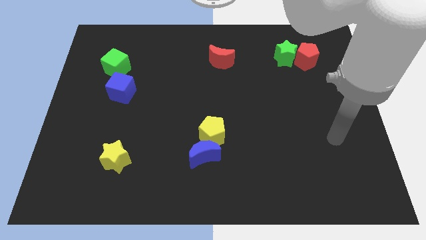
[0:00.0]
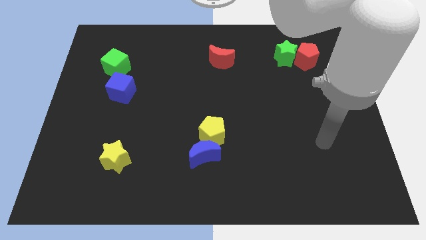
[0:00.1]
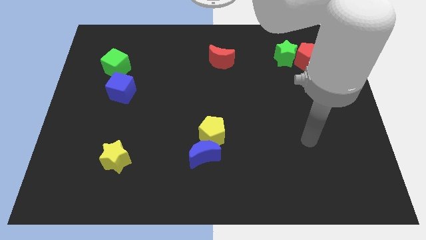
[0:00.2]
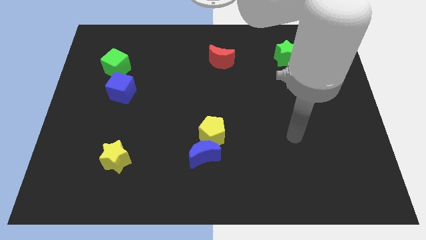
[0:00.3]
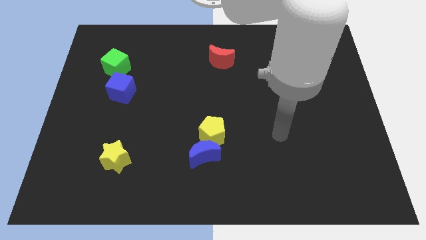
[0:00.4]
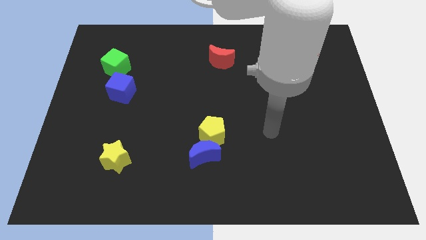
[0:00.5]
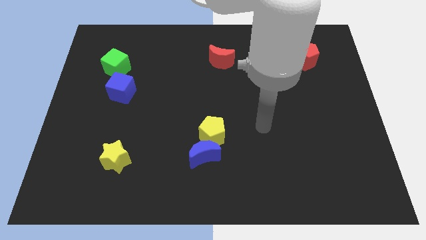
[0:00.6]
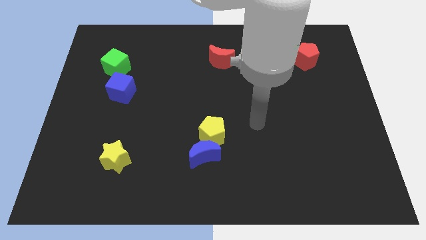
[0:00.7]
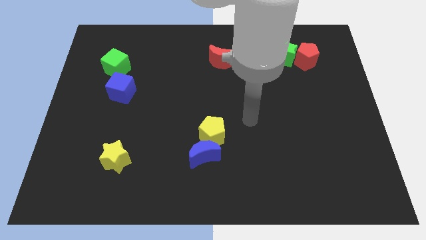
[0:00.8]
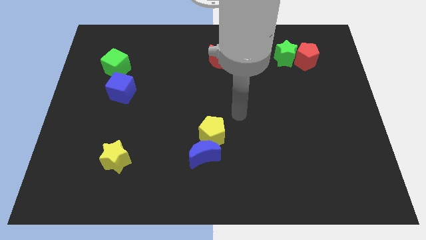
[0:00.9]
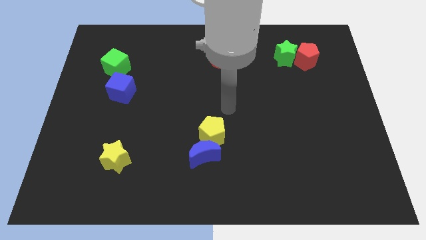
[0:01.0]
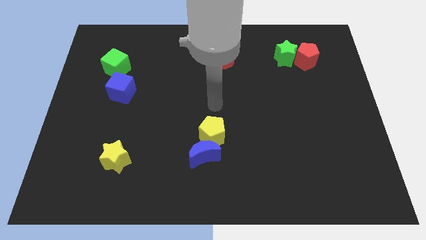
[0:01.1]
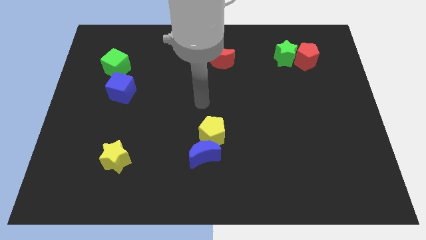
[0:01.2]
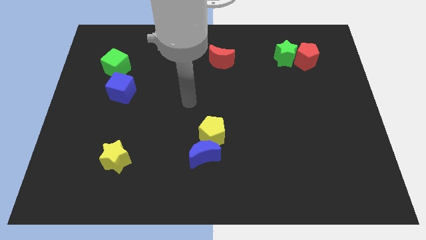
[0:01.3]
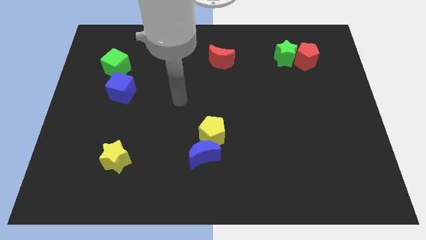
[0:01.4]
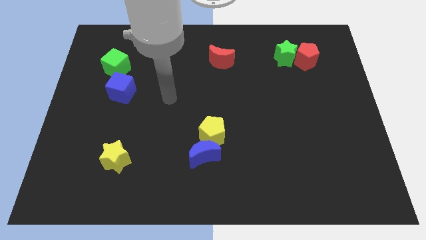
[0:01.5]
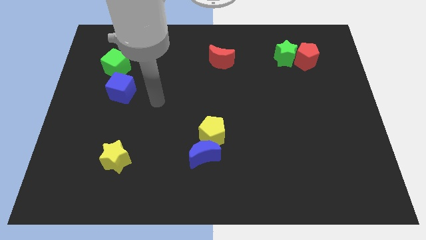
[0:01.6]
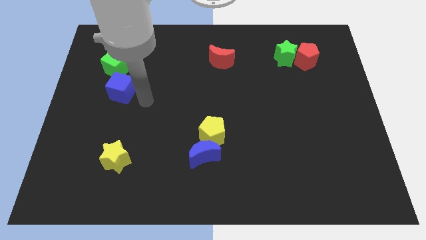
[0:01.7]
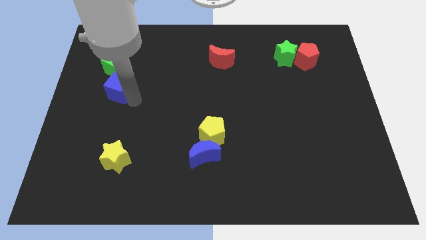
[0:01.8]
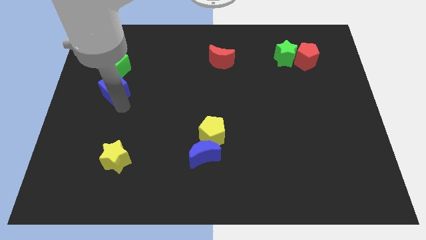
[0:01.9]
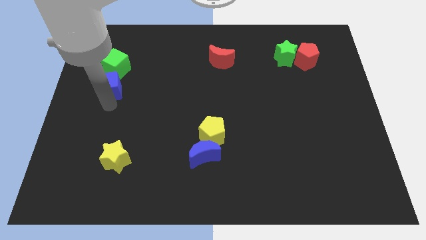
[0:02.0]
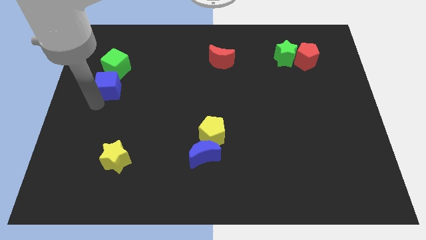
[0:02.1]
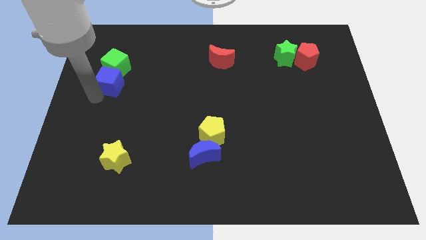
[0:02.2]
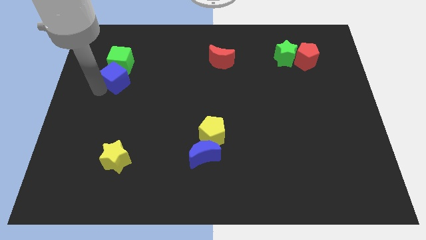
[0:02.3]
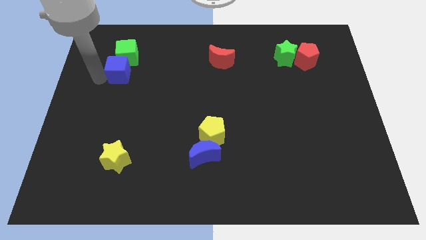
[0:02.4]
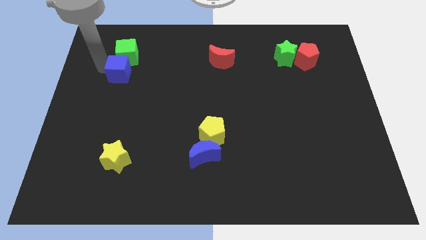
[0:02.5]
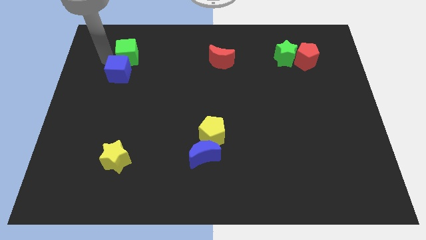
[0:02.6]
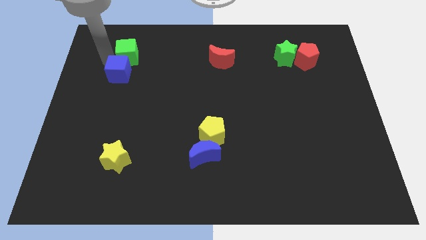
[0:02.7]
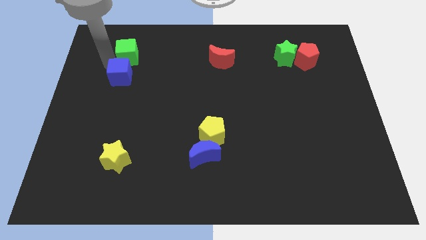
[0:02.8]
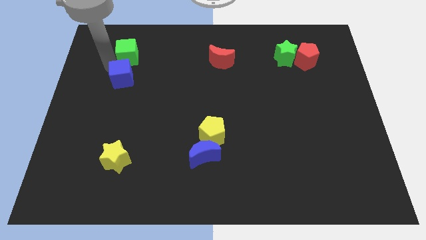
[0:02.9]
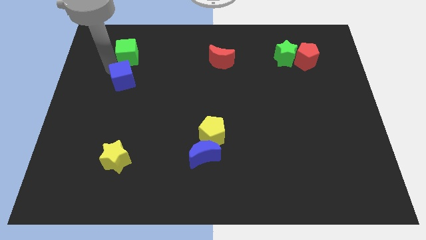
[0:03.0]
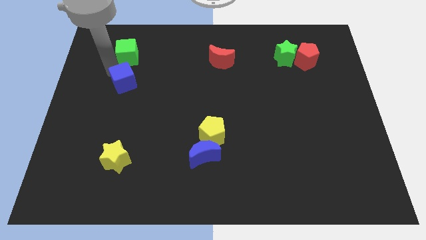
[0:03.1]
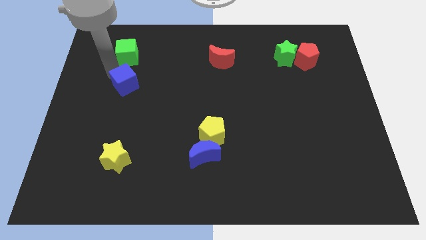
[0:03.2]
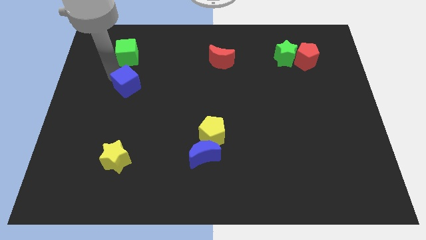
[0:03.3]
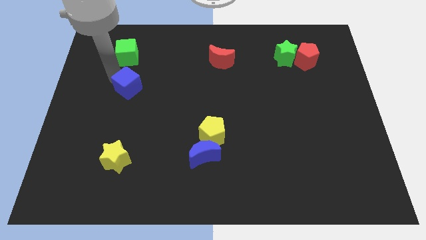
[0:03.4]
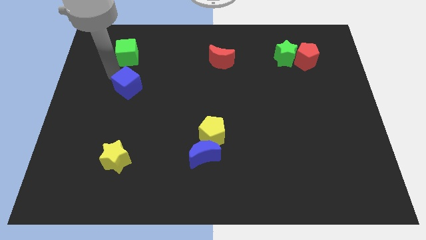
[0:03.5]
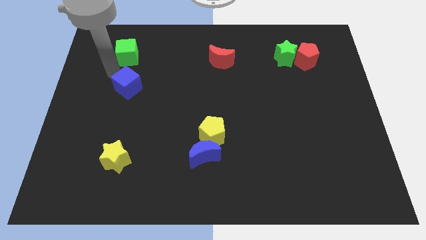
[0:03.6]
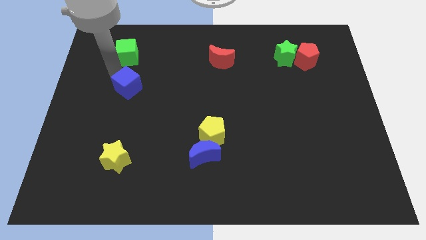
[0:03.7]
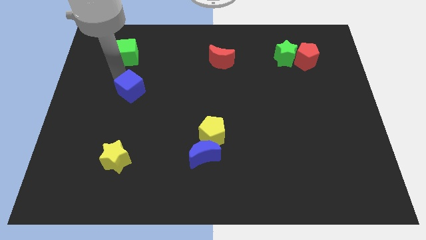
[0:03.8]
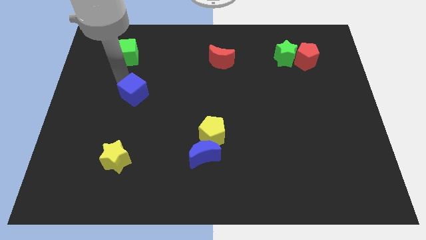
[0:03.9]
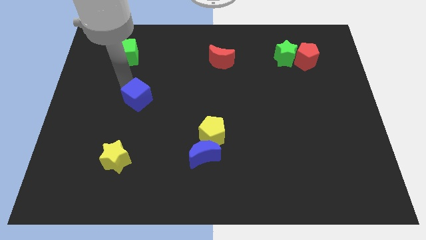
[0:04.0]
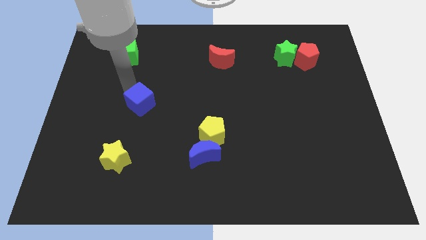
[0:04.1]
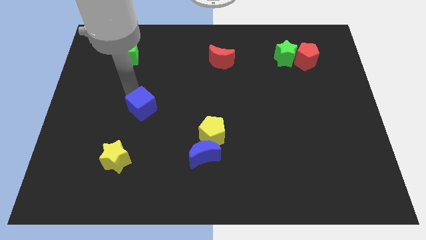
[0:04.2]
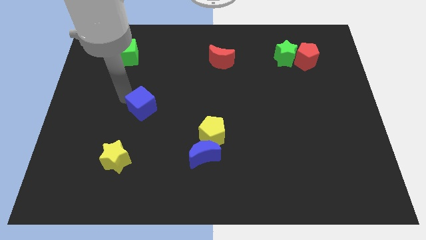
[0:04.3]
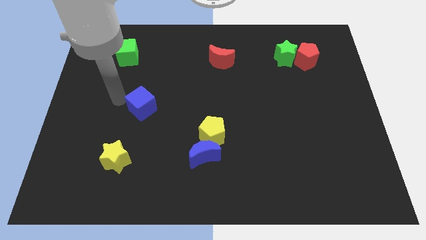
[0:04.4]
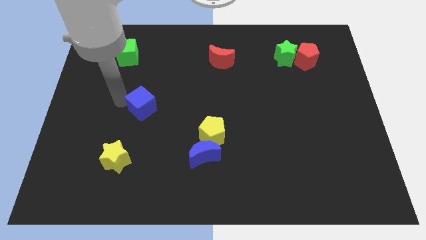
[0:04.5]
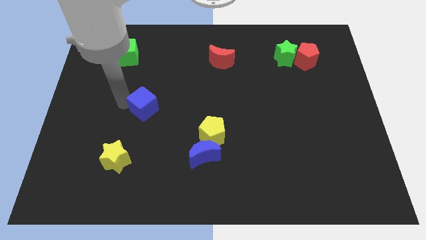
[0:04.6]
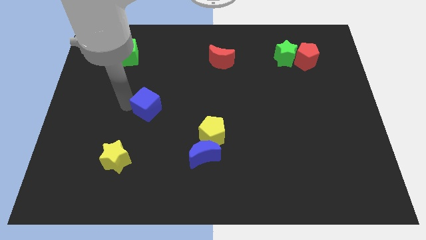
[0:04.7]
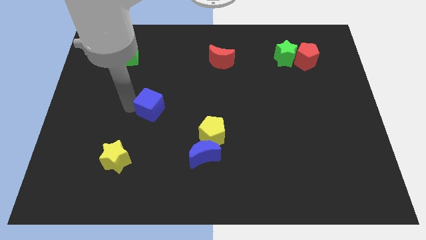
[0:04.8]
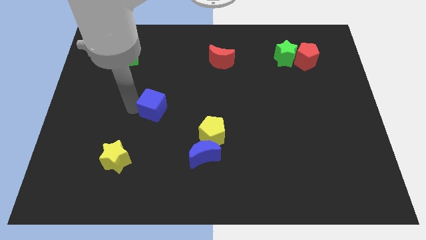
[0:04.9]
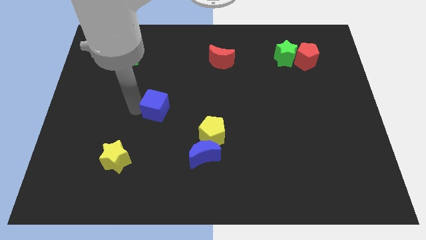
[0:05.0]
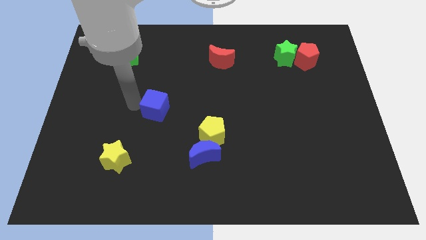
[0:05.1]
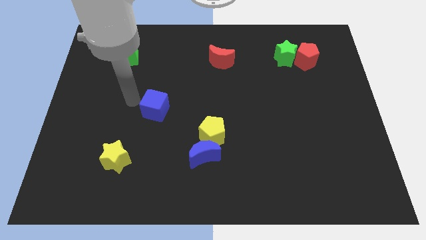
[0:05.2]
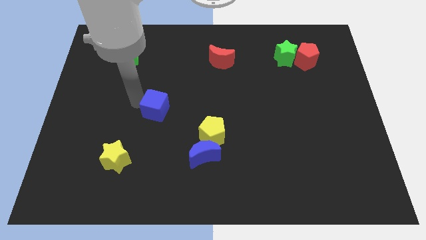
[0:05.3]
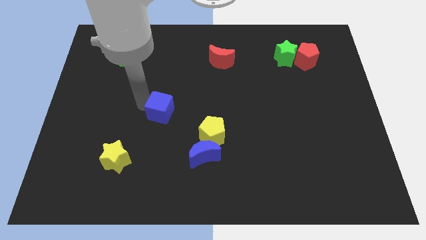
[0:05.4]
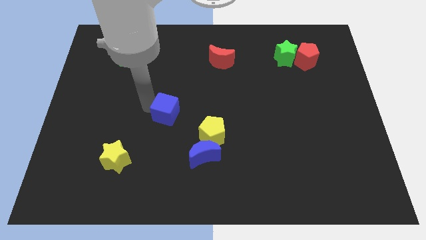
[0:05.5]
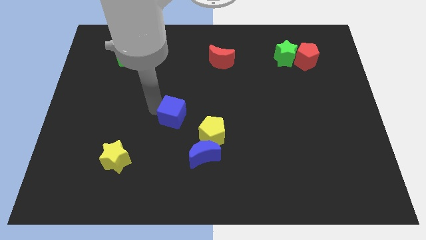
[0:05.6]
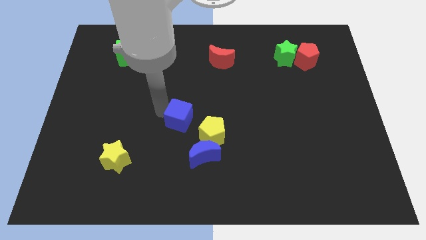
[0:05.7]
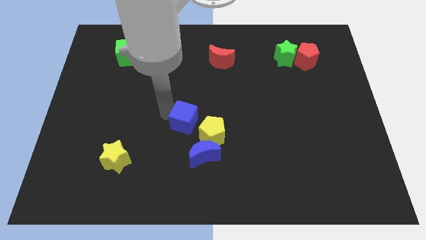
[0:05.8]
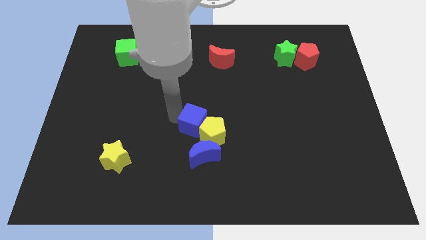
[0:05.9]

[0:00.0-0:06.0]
slide the blue cube close to the yellow pentagon
